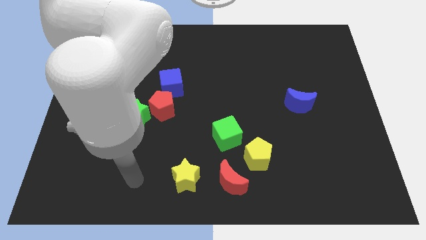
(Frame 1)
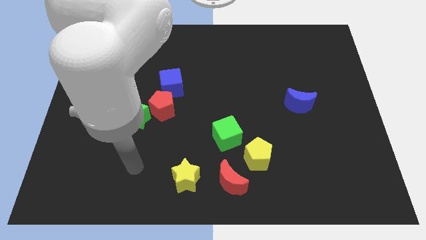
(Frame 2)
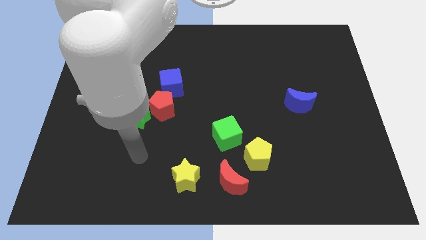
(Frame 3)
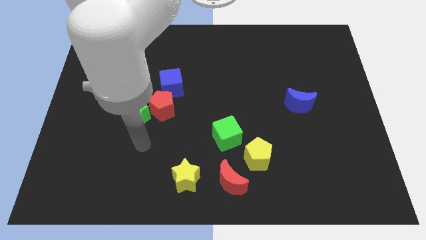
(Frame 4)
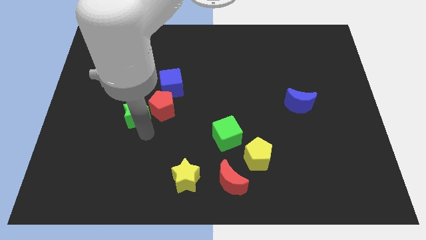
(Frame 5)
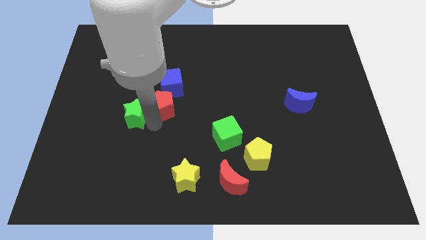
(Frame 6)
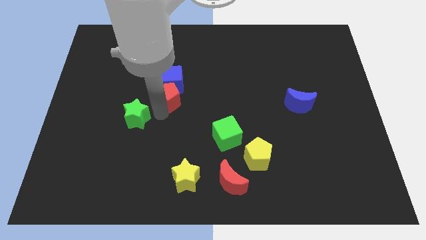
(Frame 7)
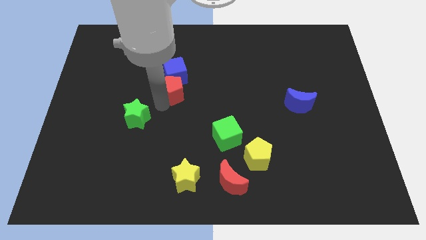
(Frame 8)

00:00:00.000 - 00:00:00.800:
pull the green star apart from the red pentagon

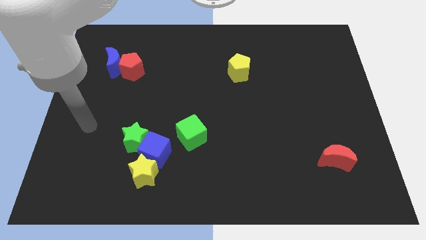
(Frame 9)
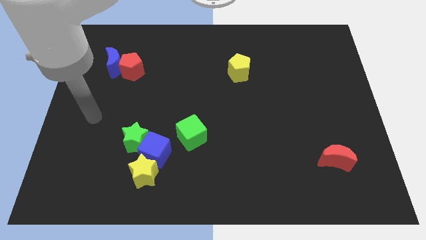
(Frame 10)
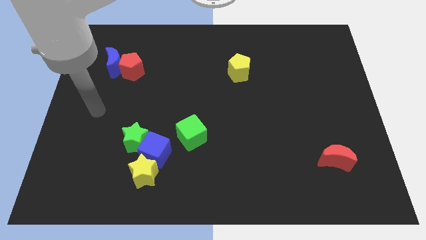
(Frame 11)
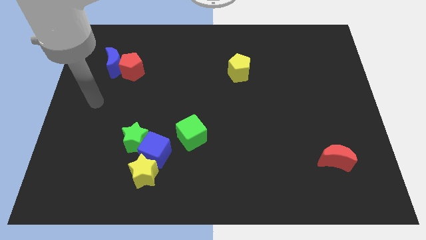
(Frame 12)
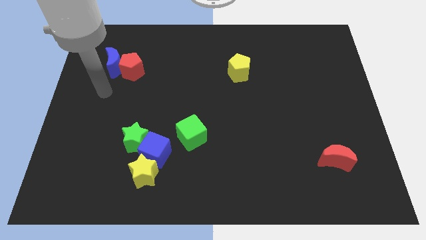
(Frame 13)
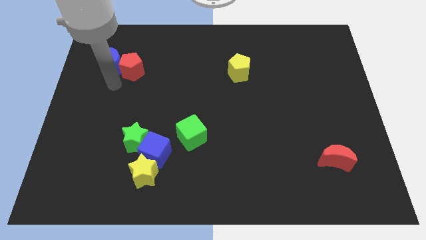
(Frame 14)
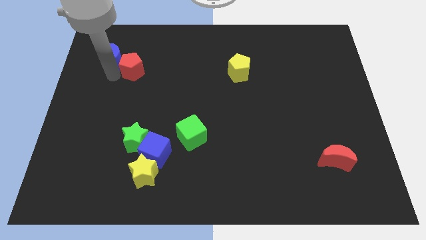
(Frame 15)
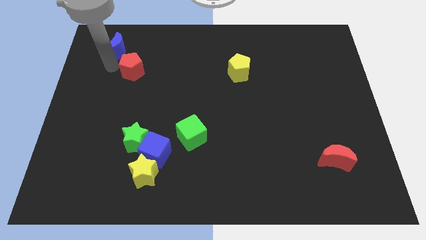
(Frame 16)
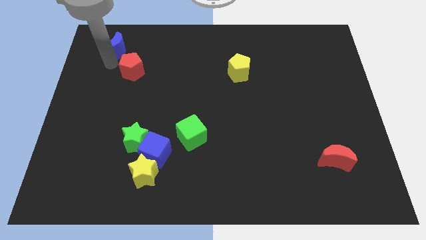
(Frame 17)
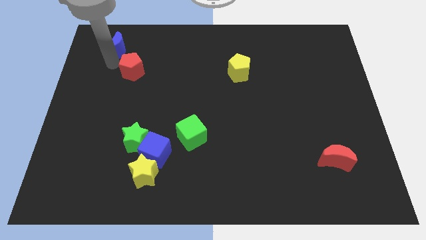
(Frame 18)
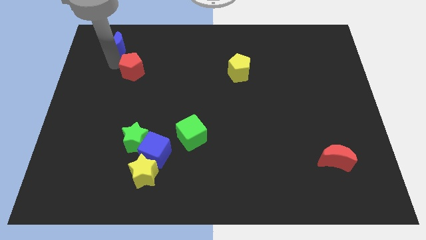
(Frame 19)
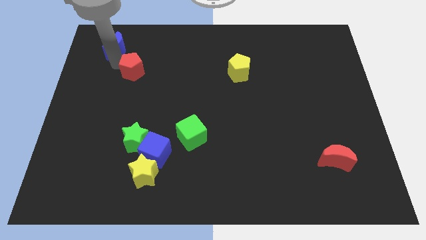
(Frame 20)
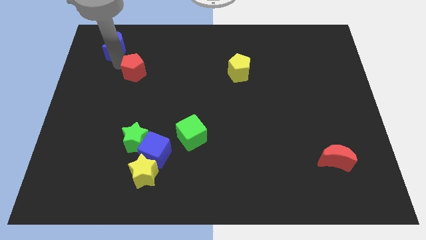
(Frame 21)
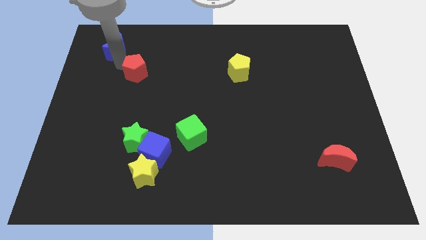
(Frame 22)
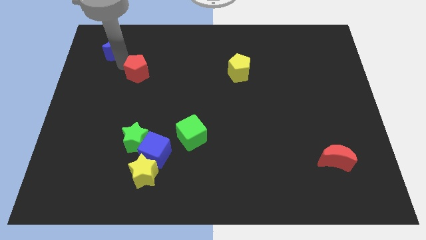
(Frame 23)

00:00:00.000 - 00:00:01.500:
pull the red pentagon apart from the blue moon

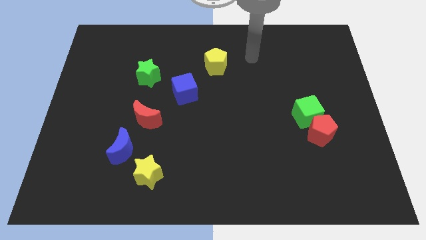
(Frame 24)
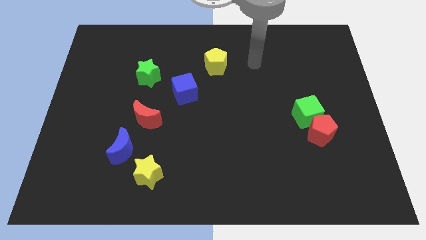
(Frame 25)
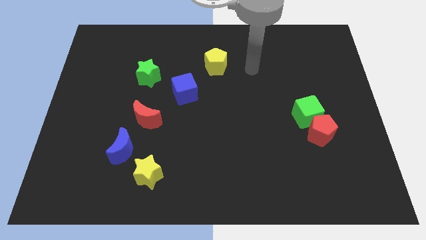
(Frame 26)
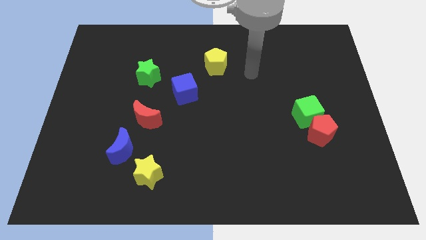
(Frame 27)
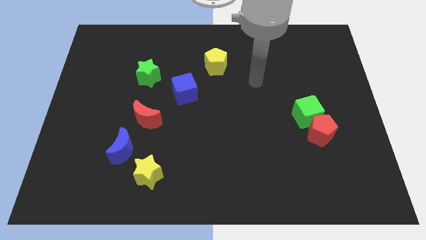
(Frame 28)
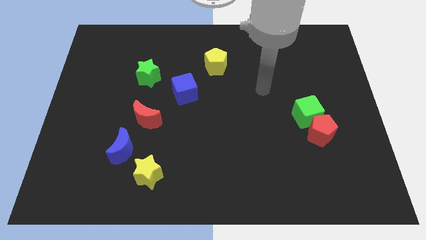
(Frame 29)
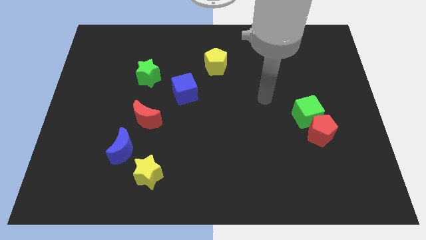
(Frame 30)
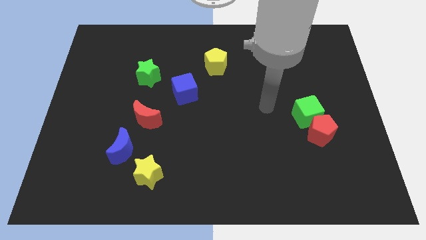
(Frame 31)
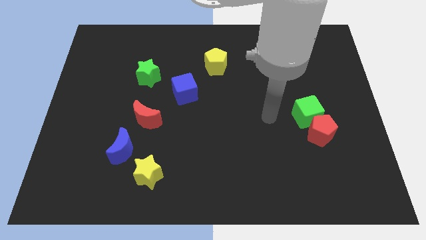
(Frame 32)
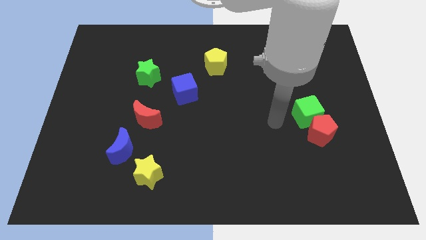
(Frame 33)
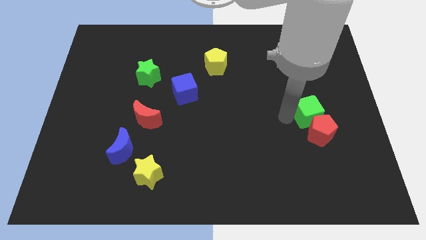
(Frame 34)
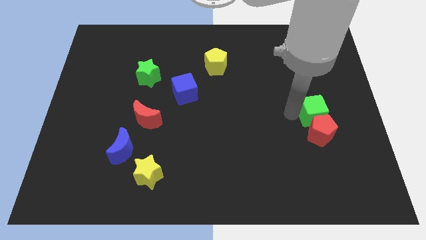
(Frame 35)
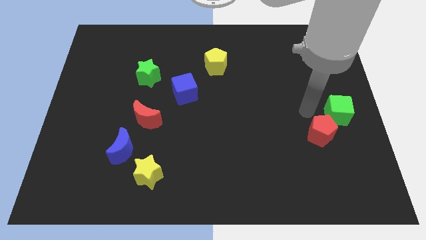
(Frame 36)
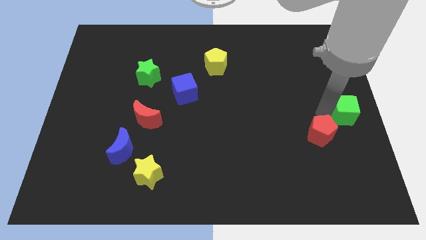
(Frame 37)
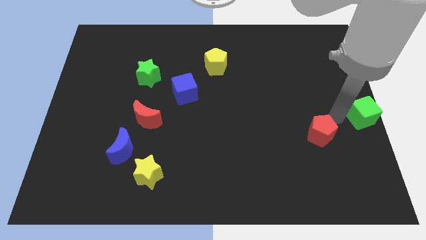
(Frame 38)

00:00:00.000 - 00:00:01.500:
pull the red pentagon apart from the green cube

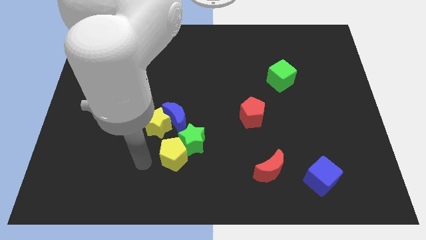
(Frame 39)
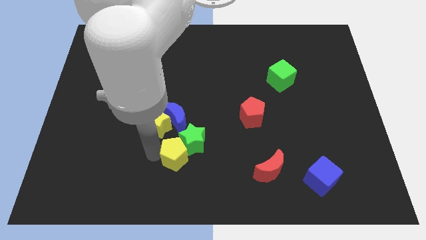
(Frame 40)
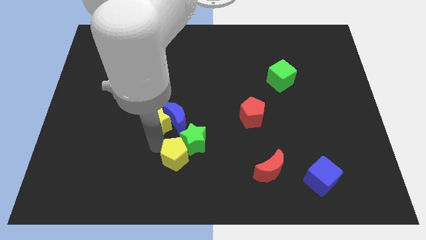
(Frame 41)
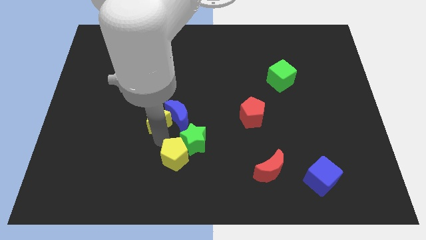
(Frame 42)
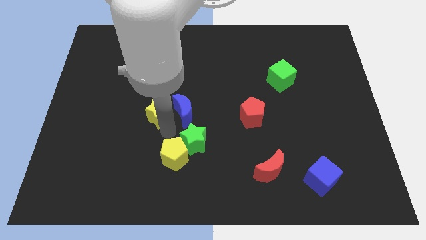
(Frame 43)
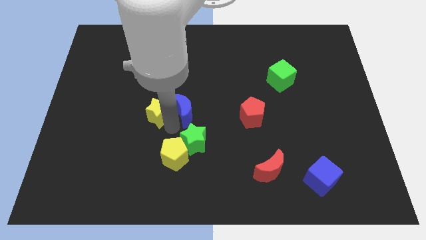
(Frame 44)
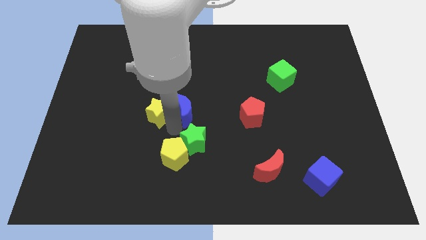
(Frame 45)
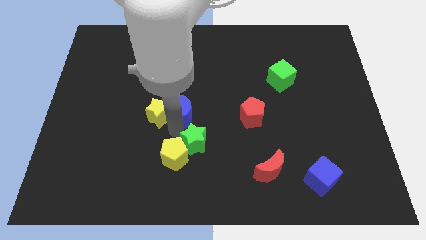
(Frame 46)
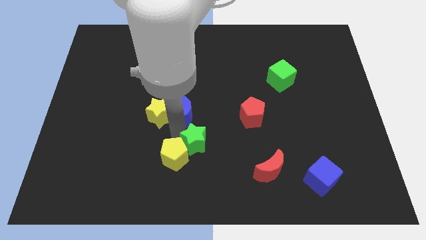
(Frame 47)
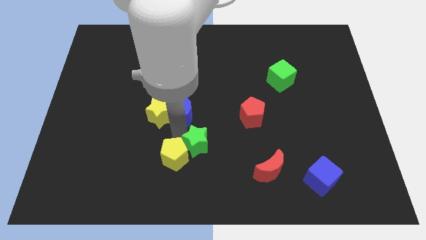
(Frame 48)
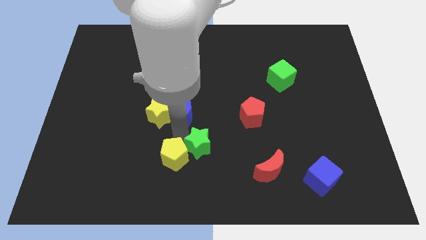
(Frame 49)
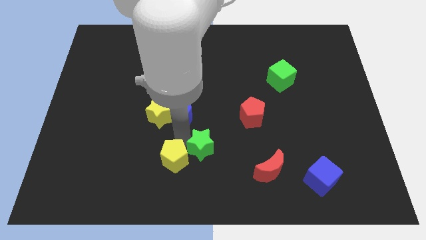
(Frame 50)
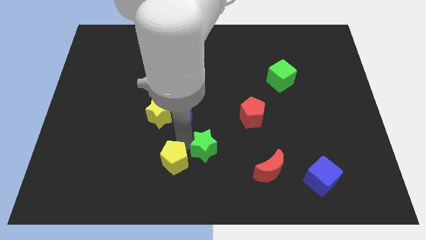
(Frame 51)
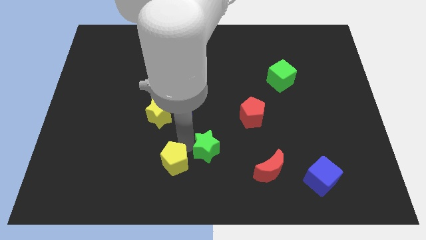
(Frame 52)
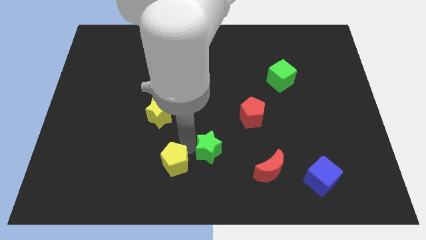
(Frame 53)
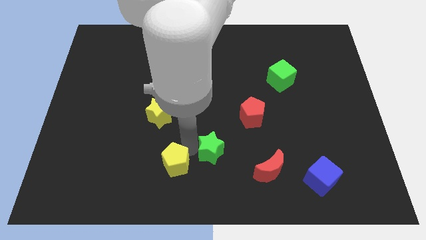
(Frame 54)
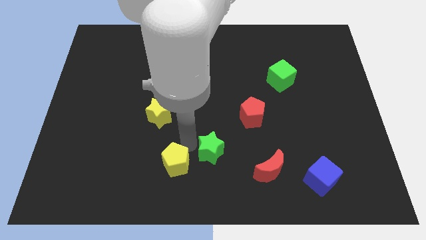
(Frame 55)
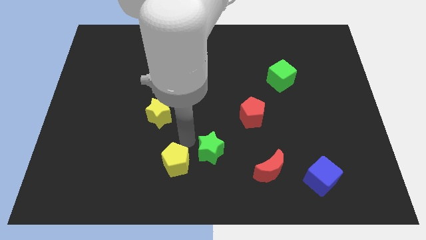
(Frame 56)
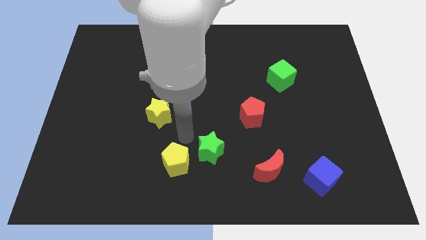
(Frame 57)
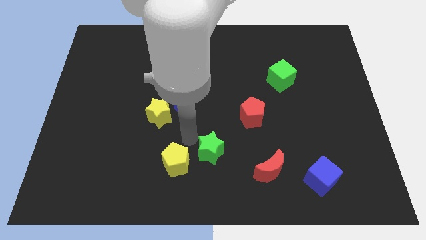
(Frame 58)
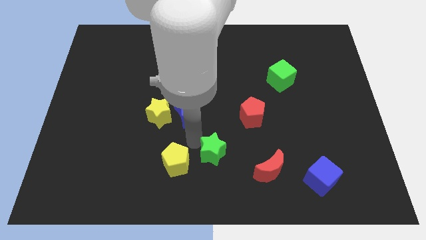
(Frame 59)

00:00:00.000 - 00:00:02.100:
move the green star away from the yellow pentagon, blue moon, and yellow star

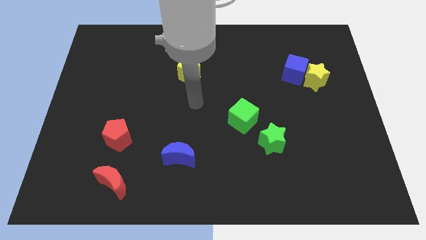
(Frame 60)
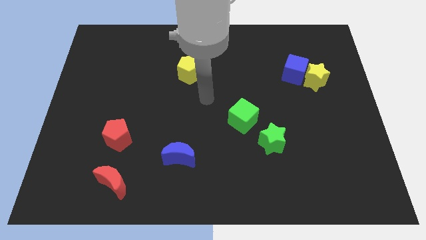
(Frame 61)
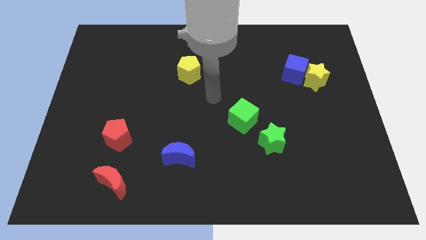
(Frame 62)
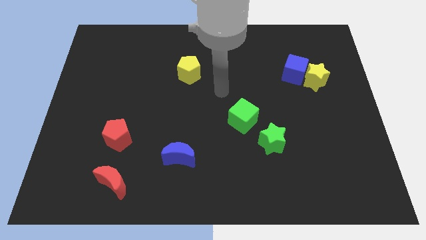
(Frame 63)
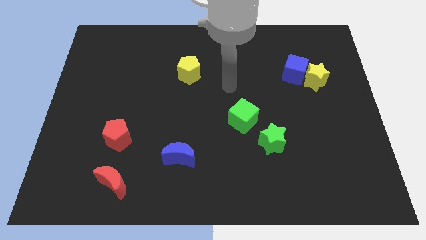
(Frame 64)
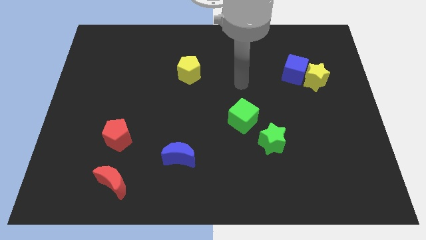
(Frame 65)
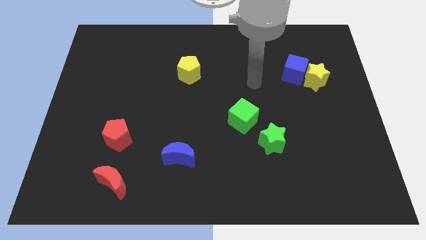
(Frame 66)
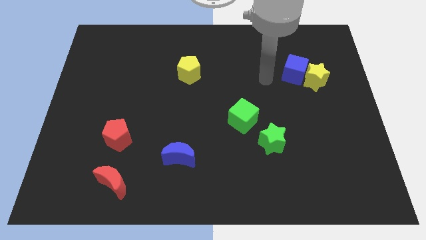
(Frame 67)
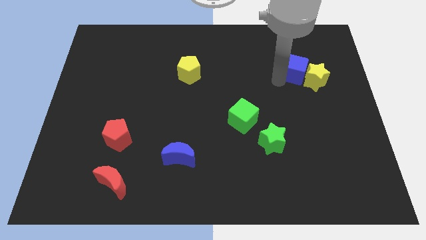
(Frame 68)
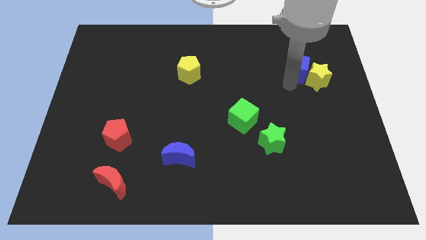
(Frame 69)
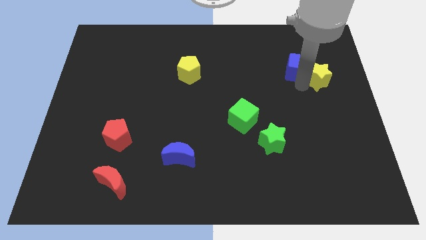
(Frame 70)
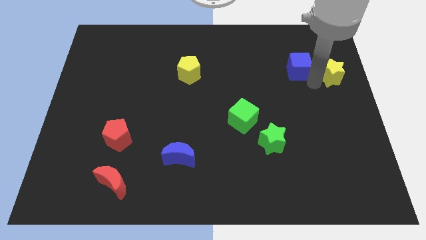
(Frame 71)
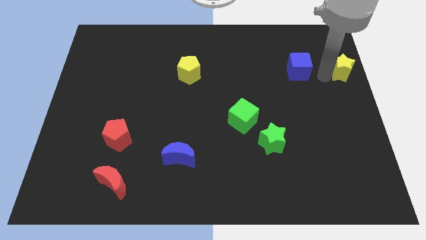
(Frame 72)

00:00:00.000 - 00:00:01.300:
separate the blue cube from the yellow star

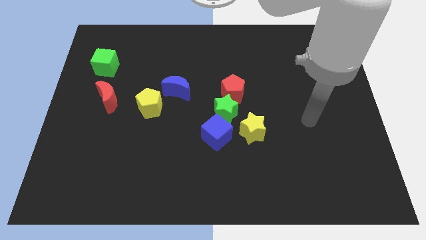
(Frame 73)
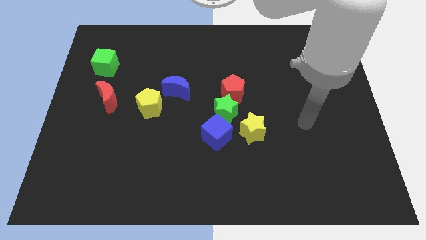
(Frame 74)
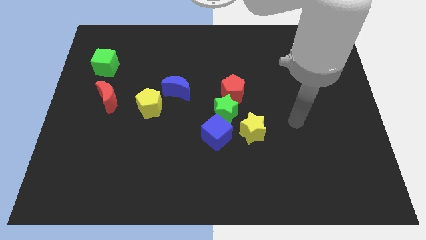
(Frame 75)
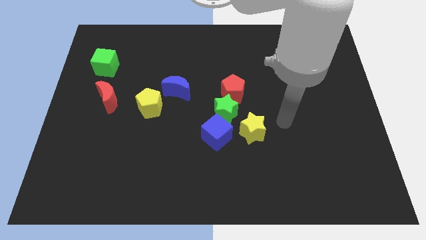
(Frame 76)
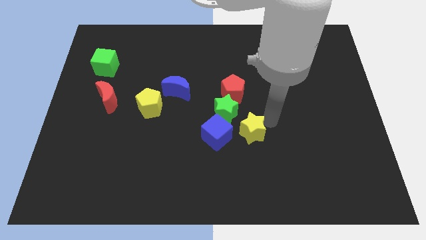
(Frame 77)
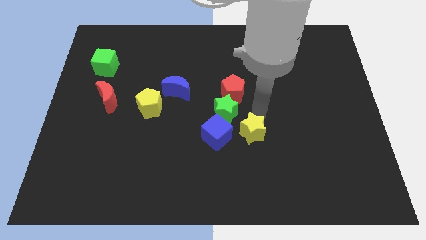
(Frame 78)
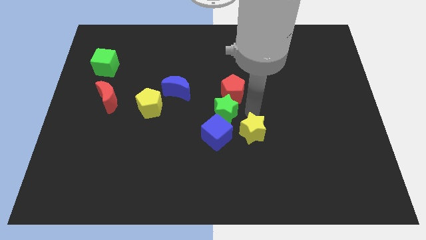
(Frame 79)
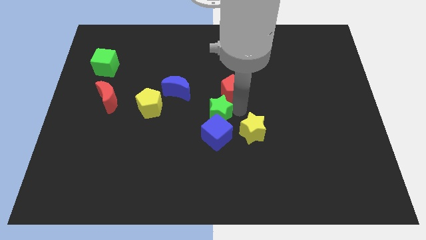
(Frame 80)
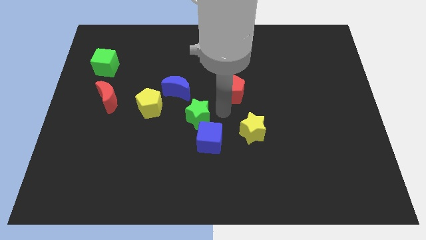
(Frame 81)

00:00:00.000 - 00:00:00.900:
separate the red pentagon from the green star

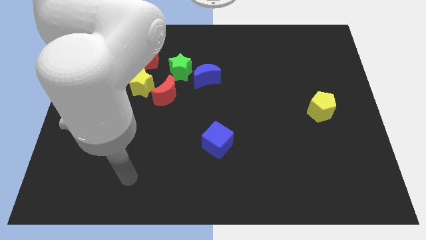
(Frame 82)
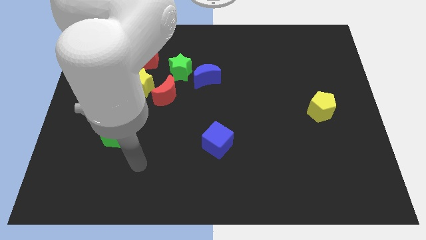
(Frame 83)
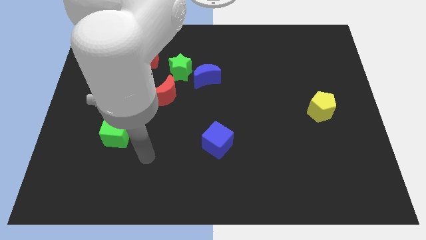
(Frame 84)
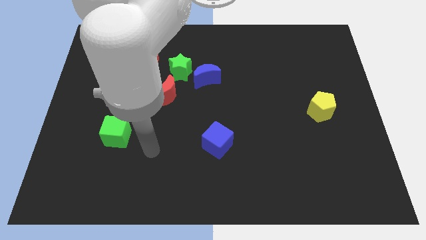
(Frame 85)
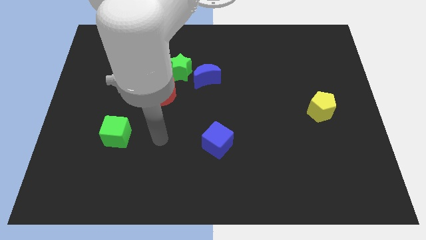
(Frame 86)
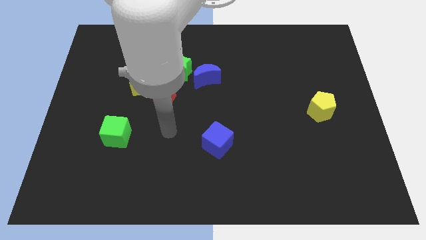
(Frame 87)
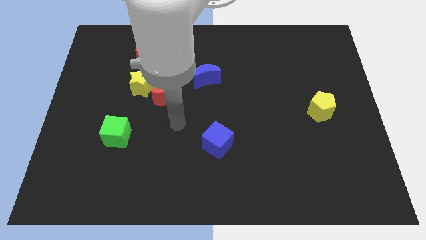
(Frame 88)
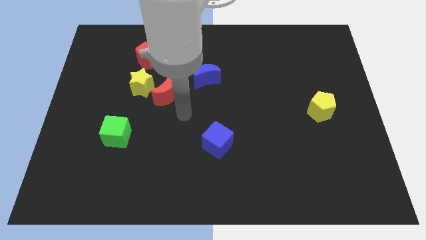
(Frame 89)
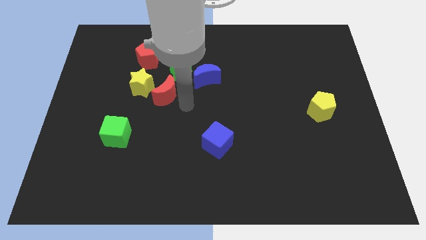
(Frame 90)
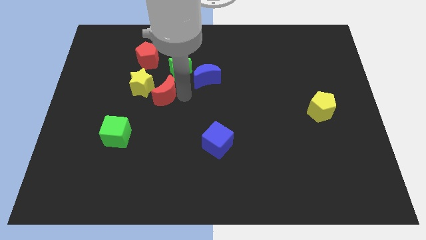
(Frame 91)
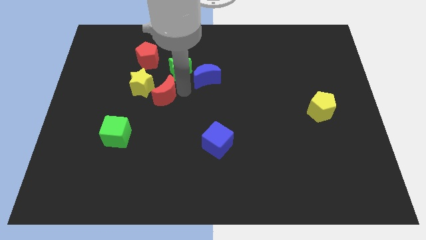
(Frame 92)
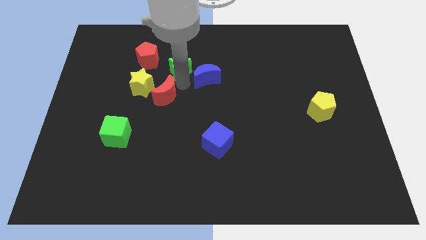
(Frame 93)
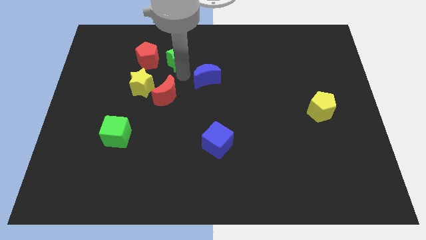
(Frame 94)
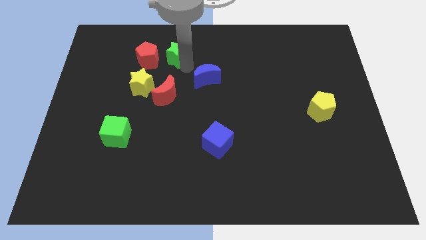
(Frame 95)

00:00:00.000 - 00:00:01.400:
pull the blue moon apart from the green star
